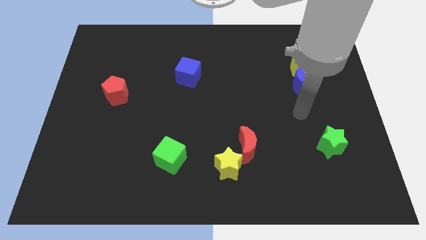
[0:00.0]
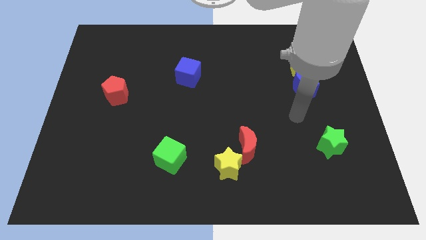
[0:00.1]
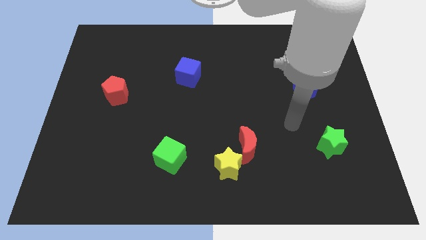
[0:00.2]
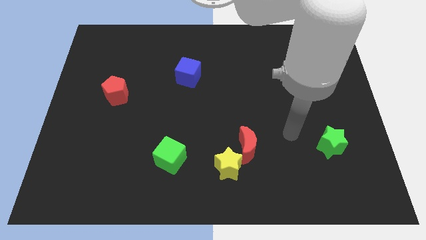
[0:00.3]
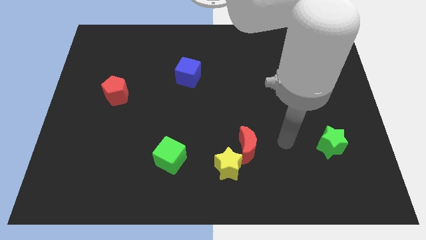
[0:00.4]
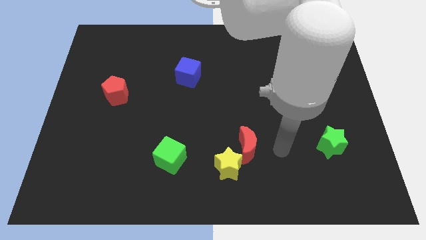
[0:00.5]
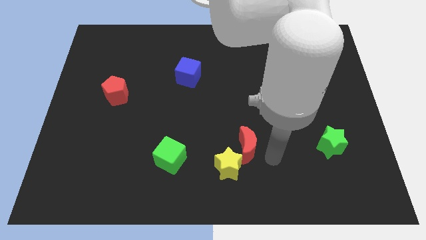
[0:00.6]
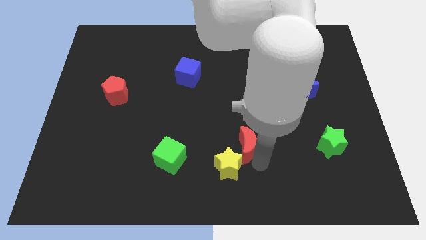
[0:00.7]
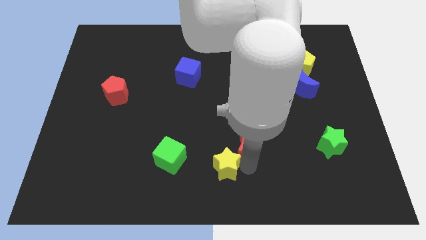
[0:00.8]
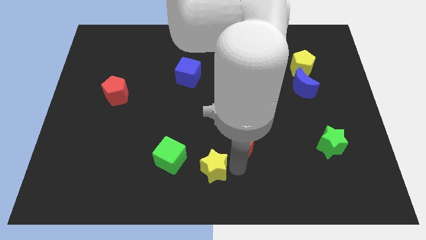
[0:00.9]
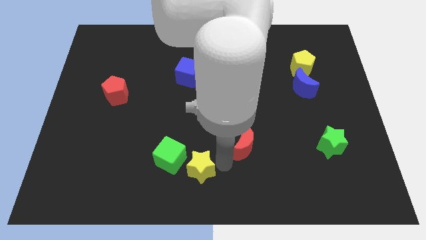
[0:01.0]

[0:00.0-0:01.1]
move the red moon away from the yellow star

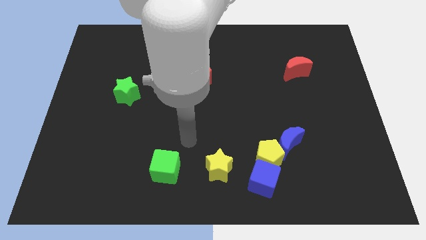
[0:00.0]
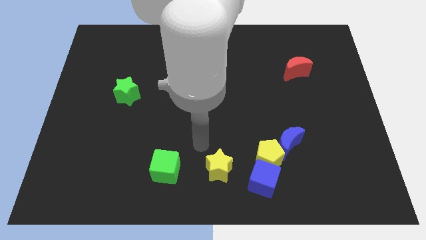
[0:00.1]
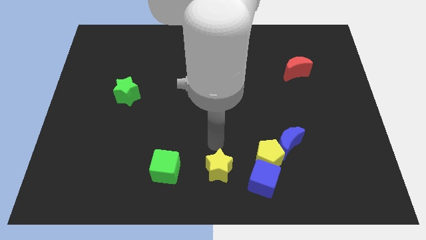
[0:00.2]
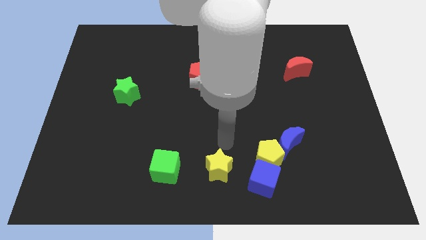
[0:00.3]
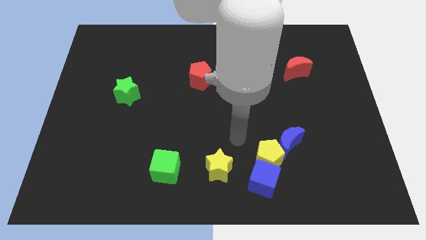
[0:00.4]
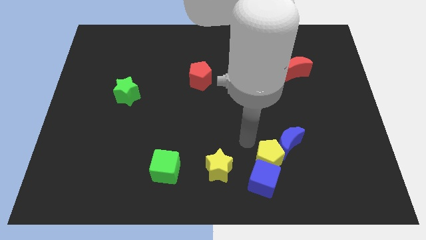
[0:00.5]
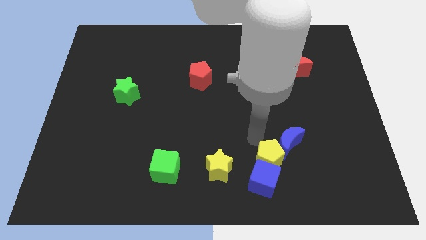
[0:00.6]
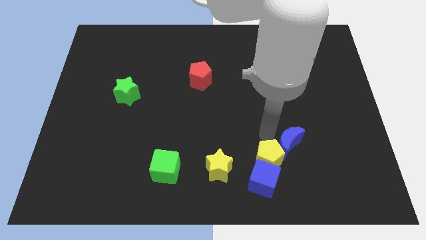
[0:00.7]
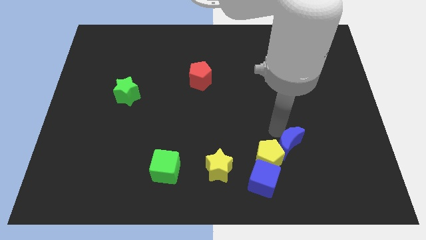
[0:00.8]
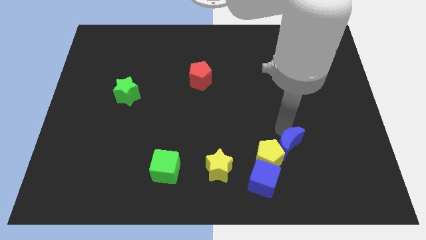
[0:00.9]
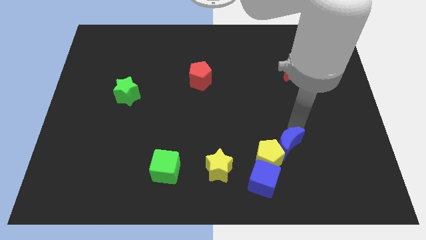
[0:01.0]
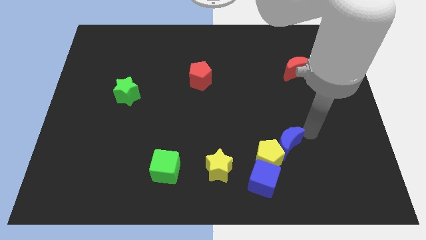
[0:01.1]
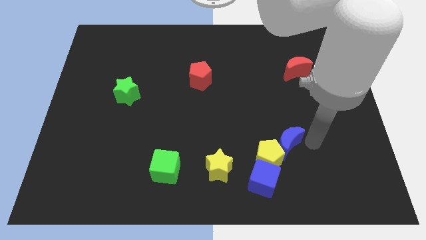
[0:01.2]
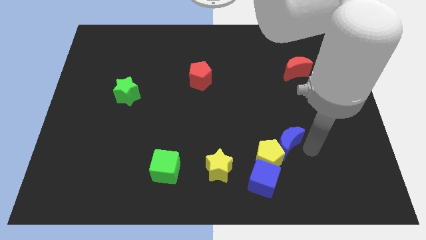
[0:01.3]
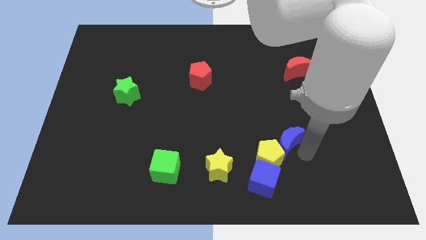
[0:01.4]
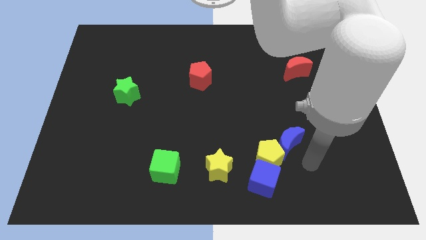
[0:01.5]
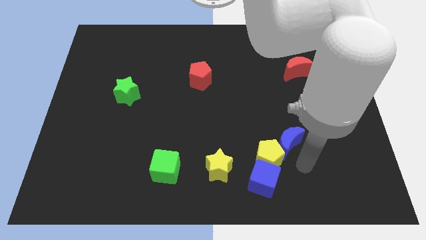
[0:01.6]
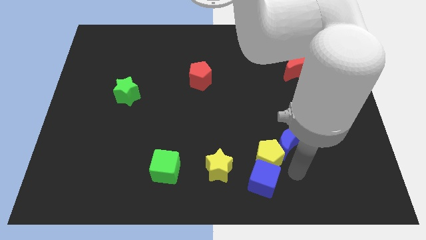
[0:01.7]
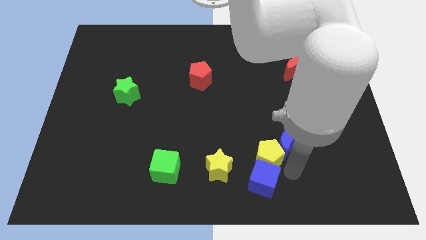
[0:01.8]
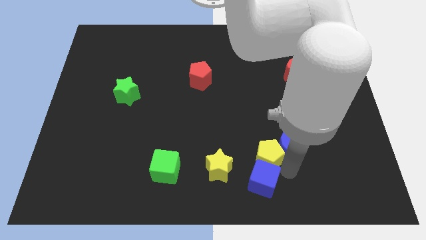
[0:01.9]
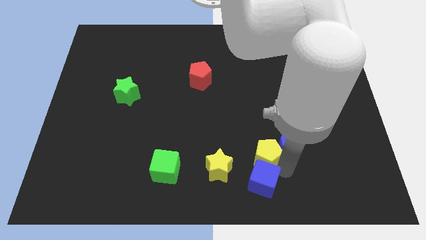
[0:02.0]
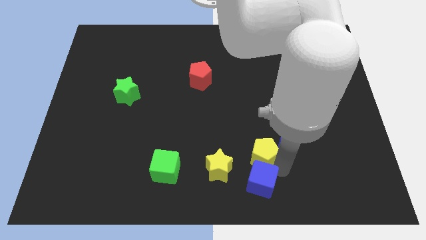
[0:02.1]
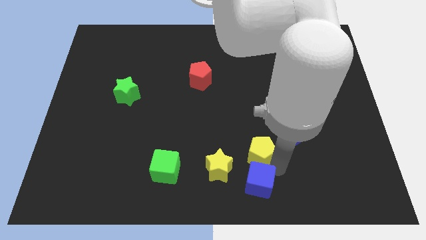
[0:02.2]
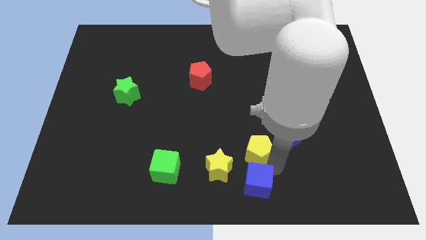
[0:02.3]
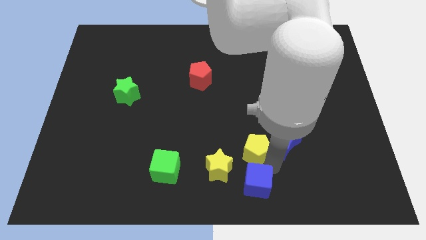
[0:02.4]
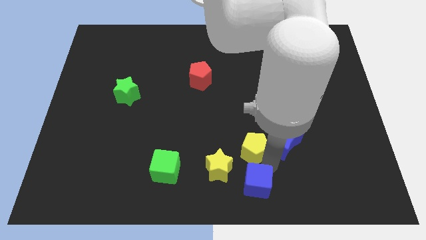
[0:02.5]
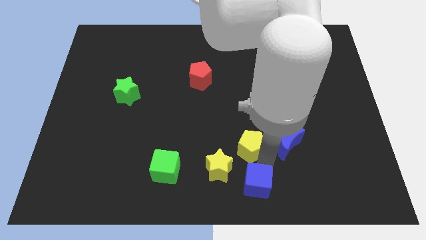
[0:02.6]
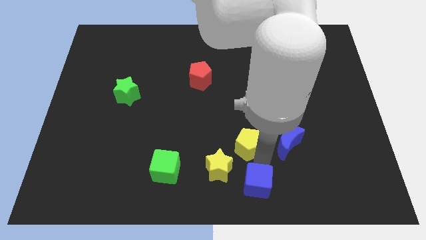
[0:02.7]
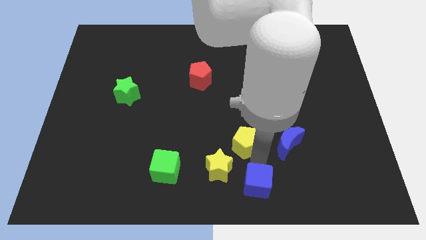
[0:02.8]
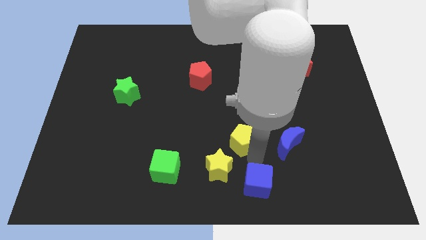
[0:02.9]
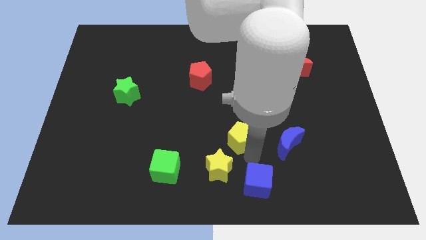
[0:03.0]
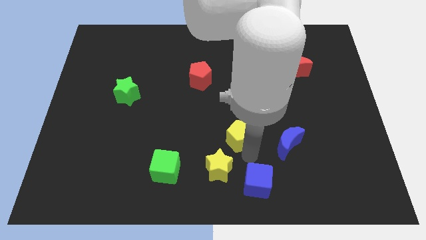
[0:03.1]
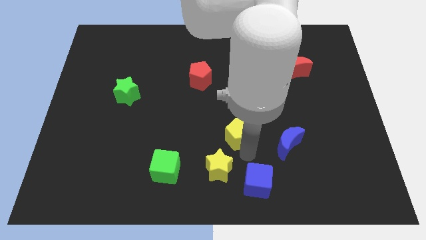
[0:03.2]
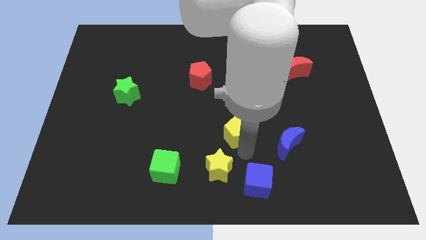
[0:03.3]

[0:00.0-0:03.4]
separate the yellow pentagon from the blue cube and blue moon

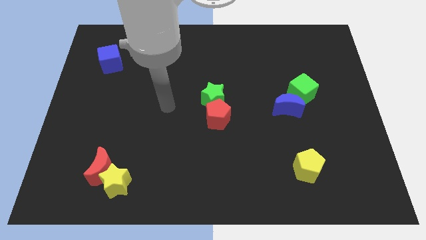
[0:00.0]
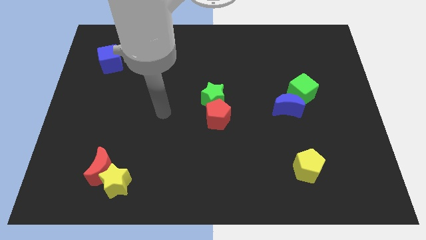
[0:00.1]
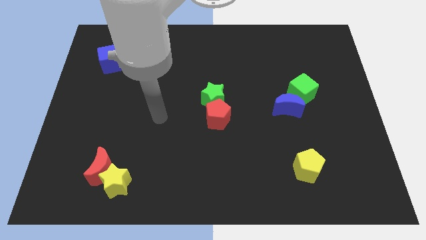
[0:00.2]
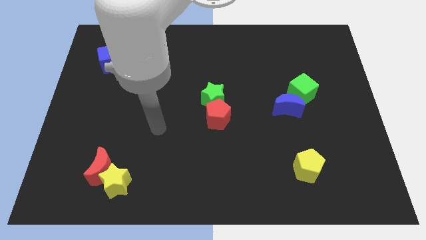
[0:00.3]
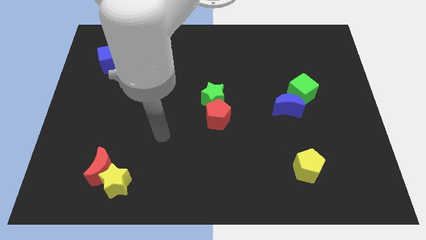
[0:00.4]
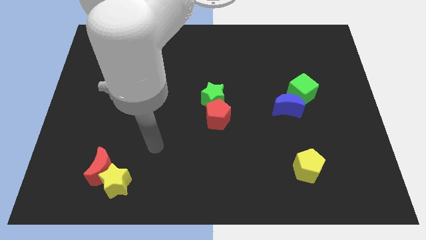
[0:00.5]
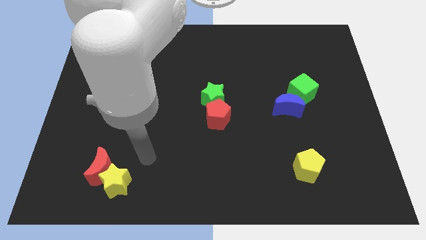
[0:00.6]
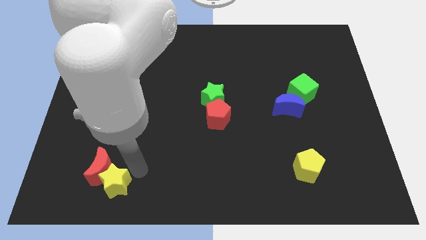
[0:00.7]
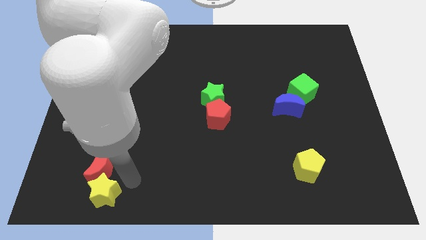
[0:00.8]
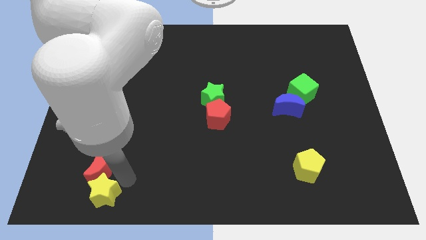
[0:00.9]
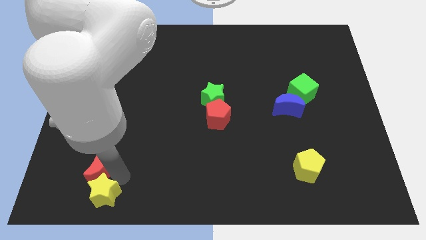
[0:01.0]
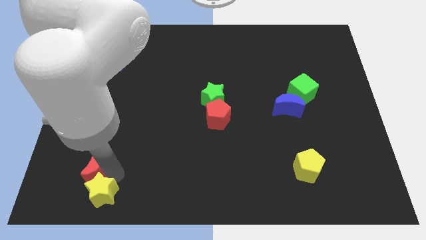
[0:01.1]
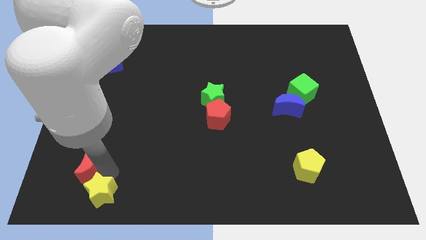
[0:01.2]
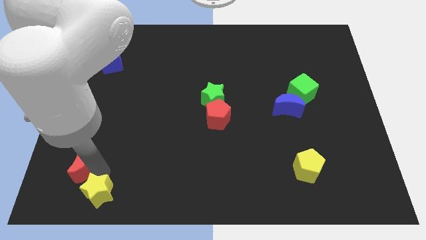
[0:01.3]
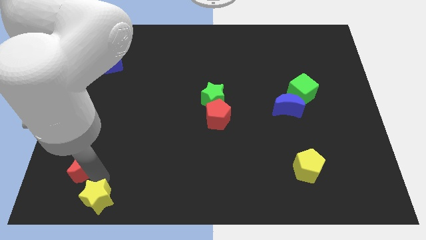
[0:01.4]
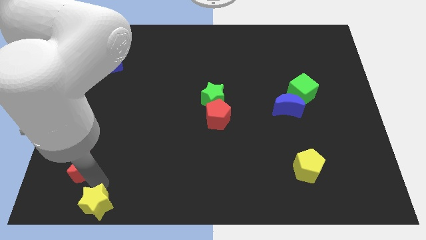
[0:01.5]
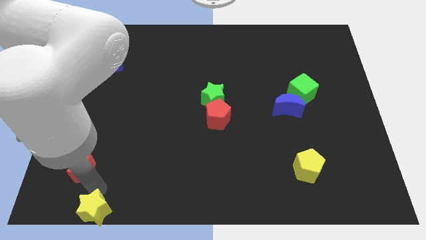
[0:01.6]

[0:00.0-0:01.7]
pull the red moon apart from the yellow star

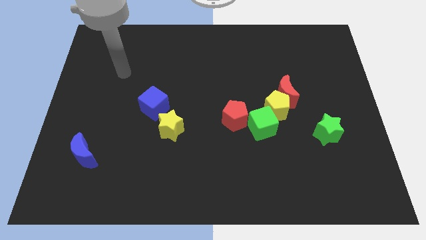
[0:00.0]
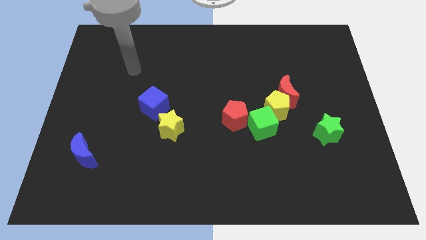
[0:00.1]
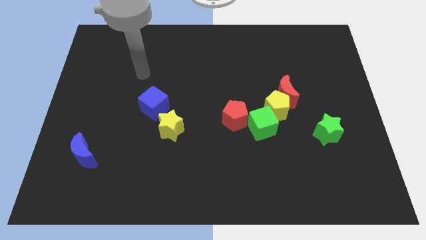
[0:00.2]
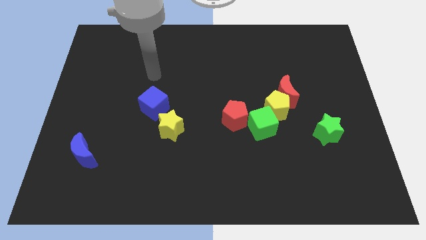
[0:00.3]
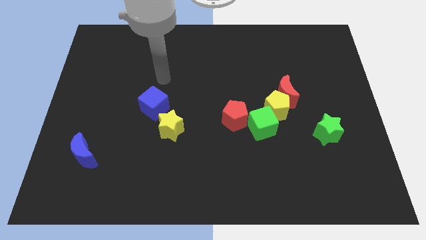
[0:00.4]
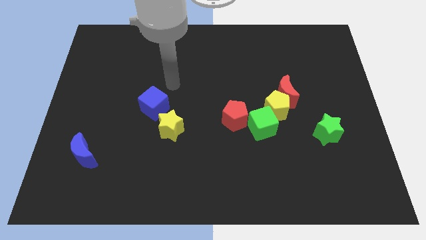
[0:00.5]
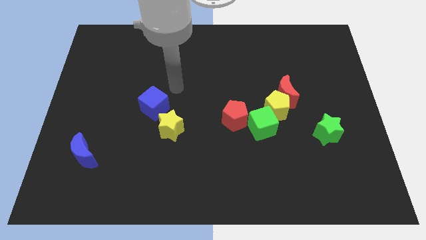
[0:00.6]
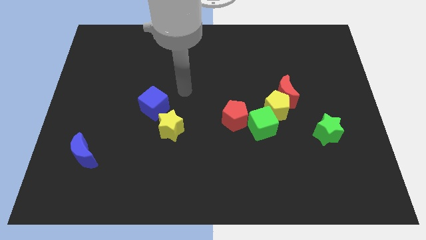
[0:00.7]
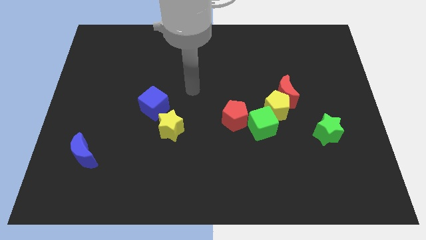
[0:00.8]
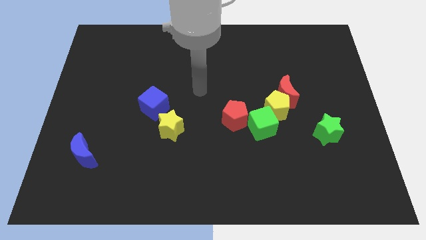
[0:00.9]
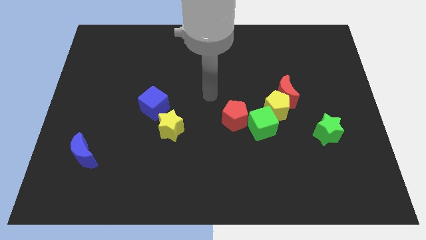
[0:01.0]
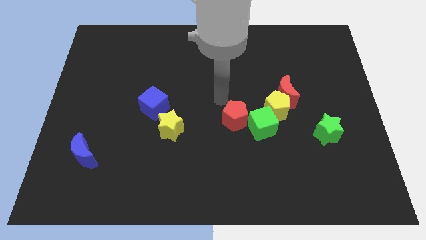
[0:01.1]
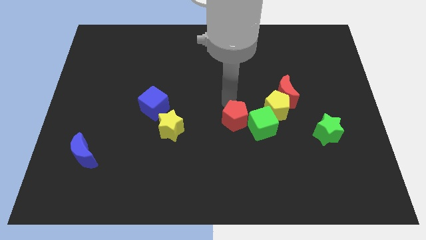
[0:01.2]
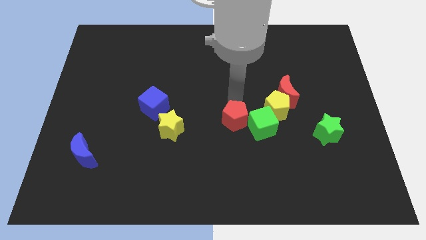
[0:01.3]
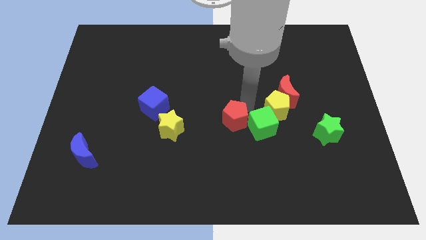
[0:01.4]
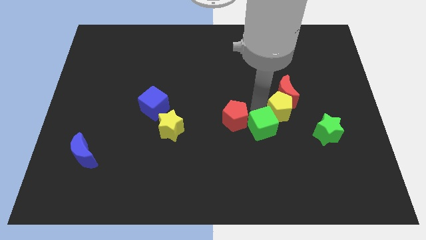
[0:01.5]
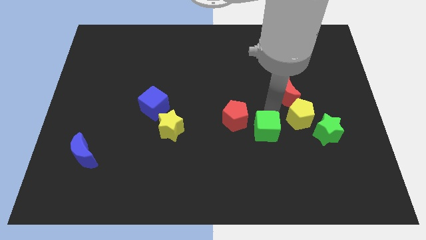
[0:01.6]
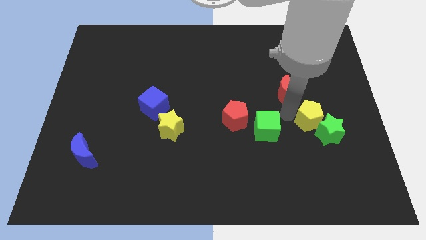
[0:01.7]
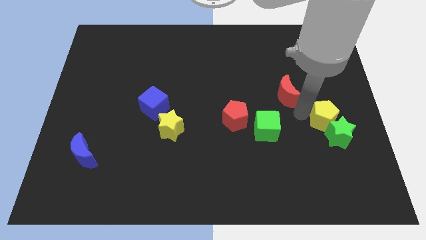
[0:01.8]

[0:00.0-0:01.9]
separate the red moon from the yellow pentagon

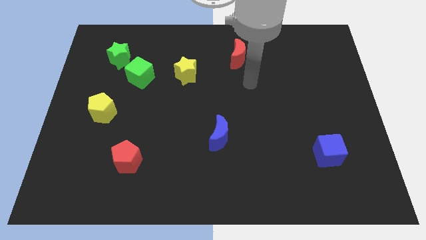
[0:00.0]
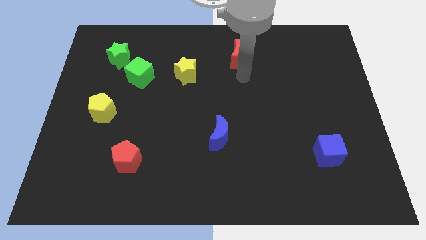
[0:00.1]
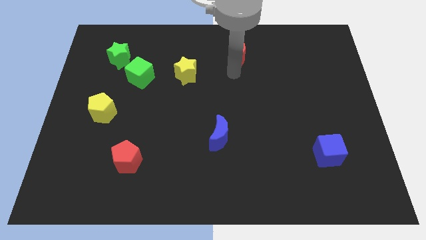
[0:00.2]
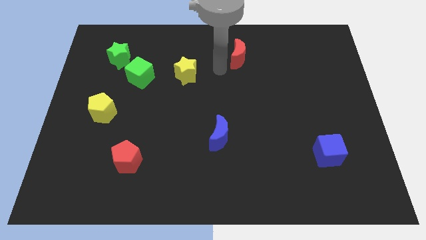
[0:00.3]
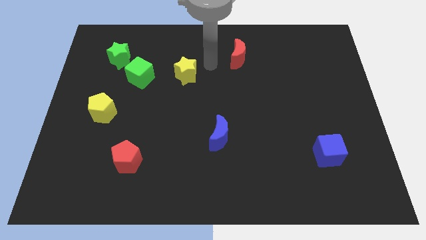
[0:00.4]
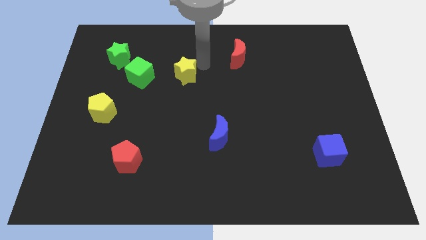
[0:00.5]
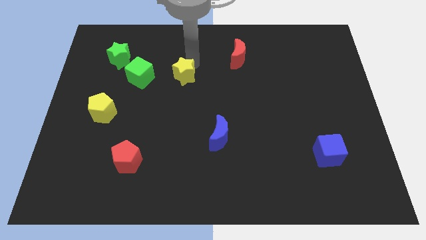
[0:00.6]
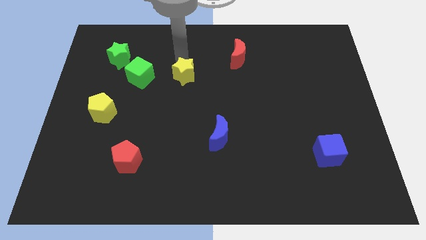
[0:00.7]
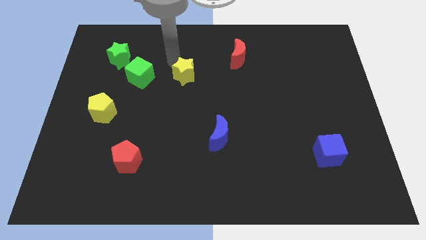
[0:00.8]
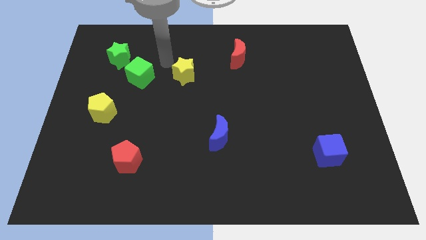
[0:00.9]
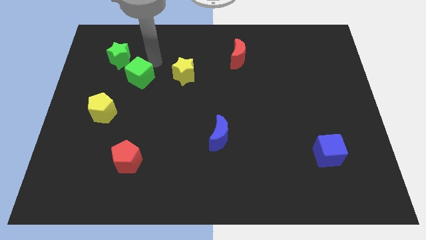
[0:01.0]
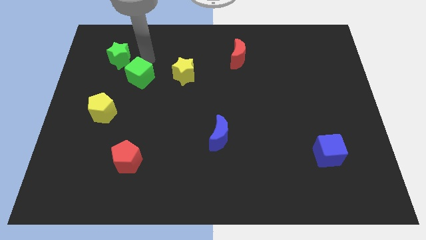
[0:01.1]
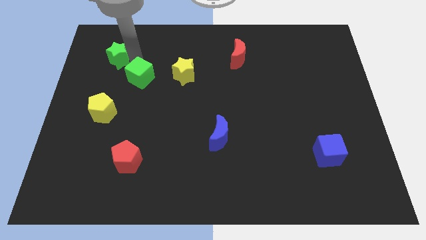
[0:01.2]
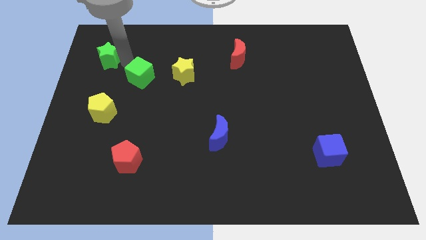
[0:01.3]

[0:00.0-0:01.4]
separate the green cube from the green star
